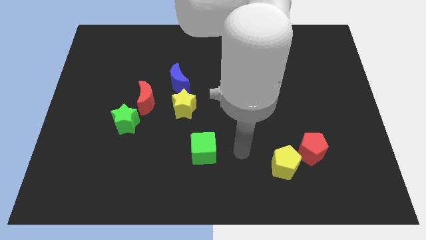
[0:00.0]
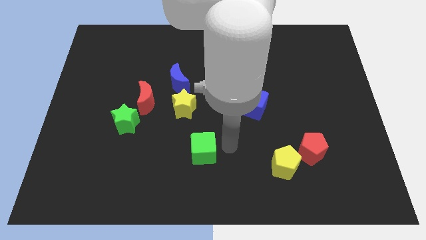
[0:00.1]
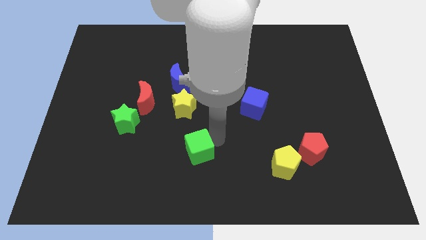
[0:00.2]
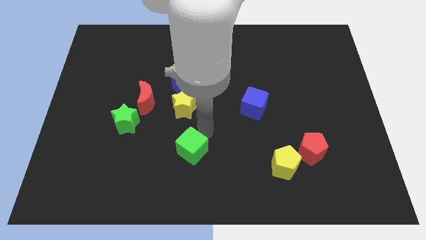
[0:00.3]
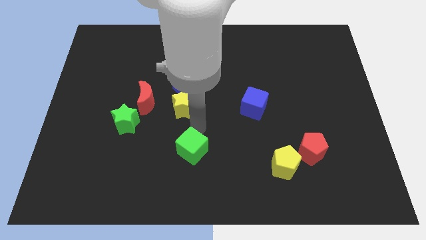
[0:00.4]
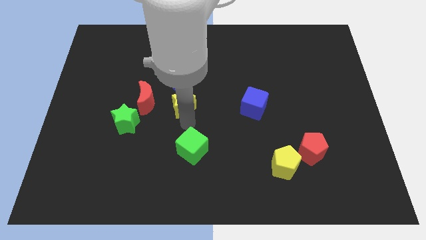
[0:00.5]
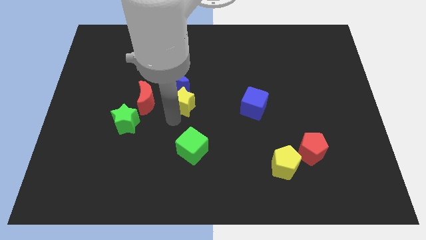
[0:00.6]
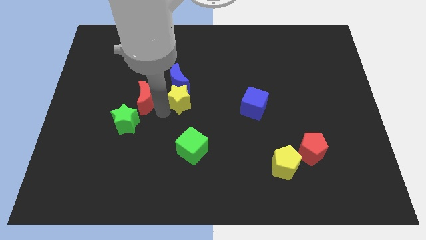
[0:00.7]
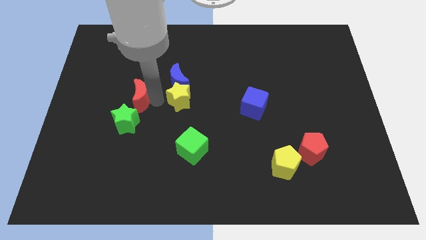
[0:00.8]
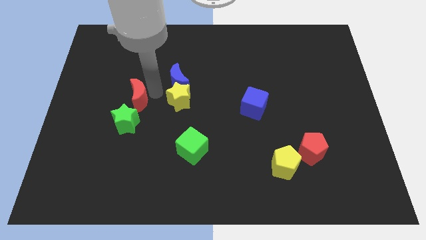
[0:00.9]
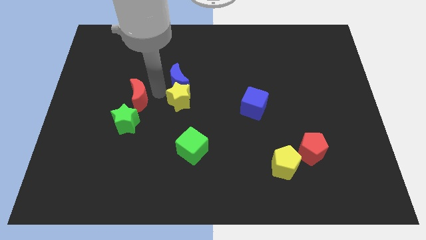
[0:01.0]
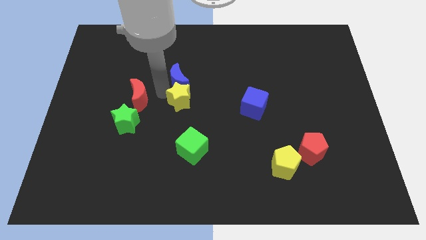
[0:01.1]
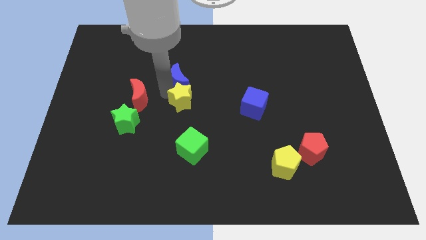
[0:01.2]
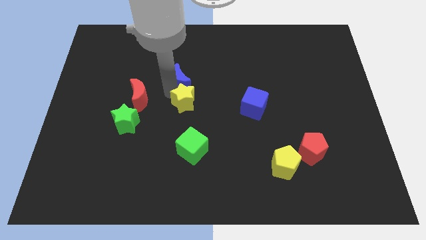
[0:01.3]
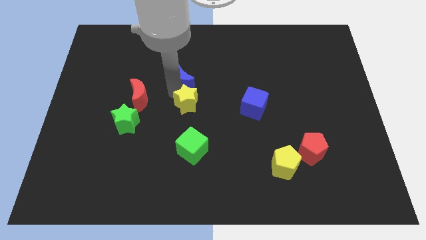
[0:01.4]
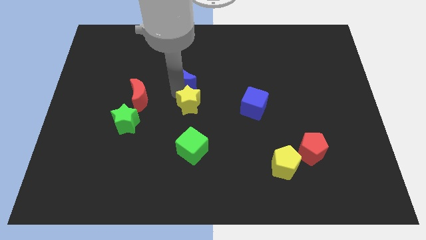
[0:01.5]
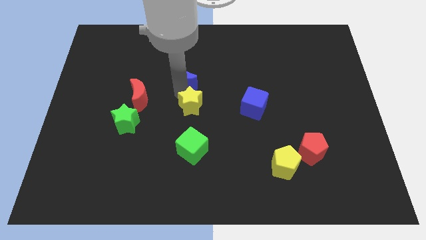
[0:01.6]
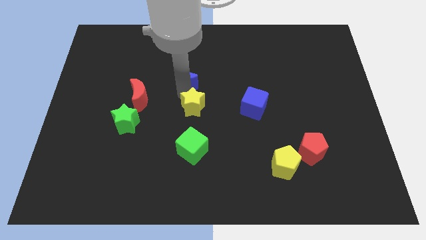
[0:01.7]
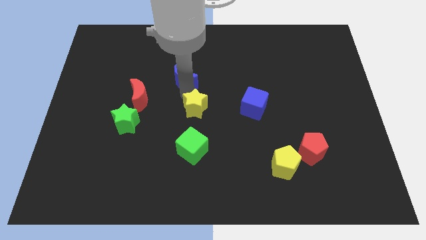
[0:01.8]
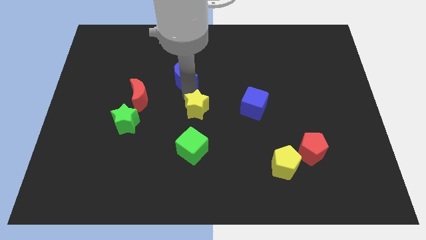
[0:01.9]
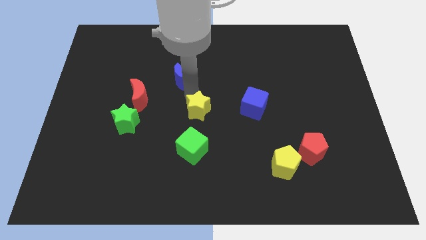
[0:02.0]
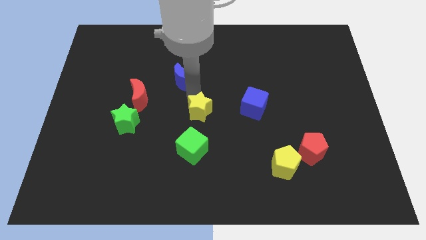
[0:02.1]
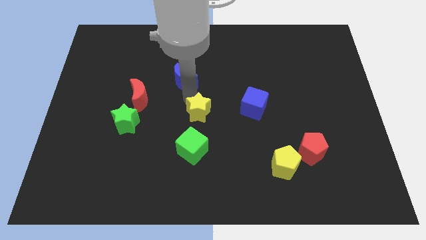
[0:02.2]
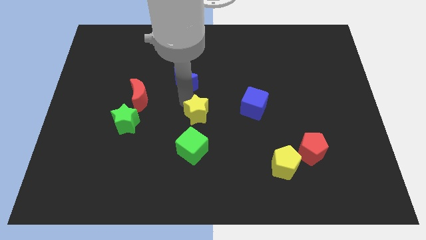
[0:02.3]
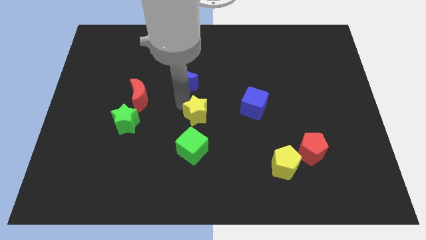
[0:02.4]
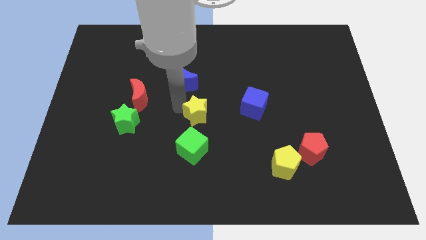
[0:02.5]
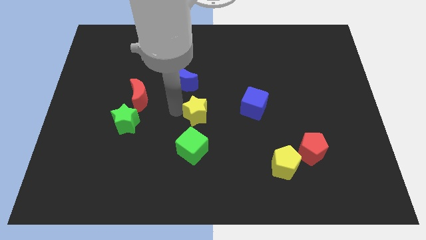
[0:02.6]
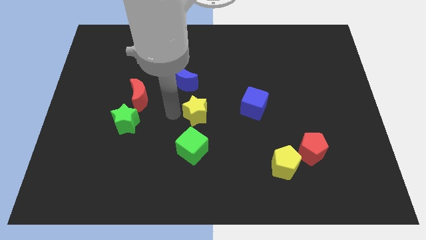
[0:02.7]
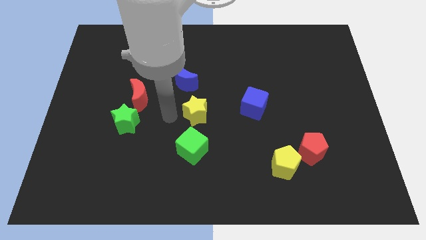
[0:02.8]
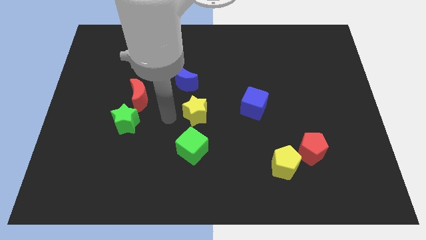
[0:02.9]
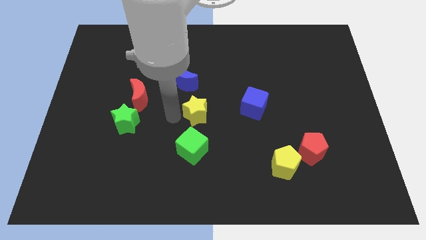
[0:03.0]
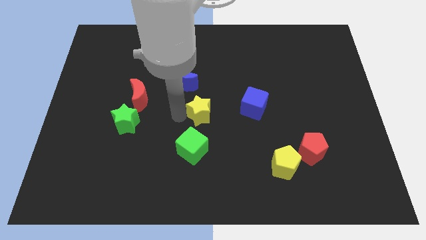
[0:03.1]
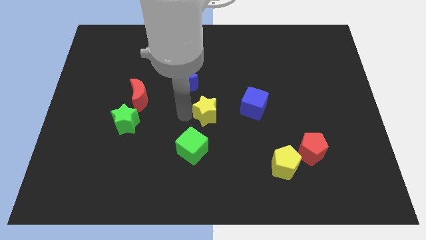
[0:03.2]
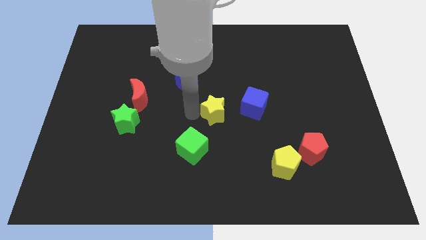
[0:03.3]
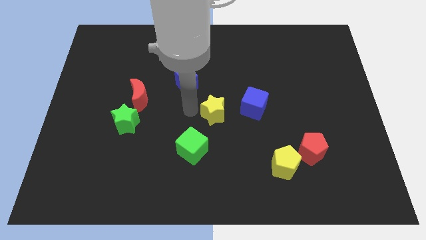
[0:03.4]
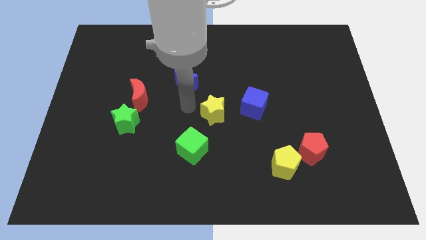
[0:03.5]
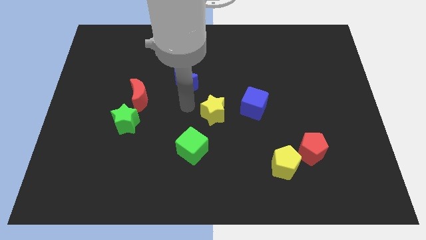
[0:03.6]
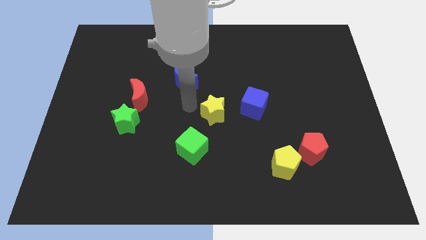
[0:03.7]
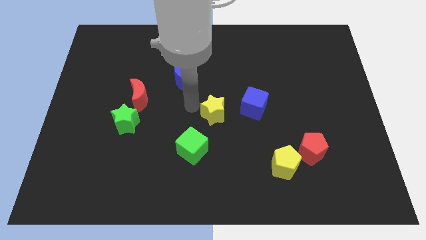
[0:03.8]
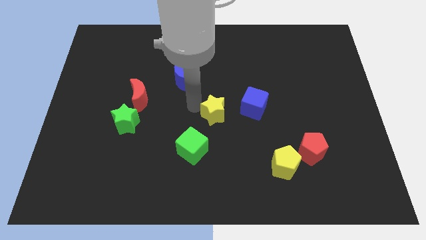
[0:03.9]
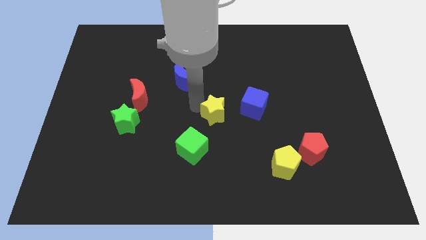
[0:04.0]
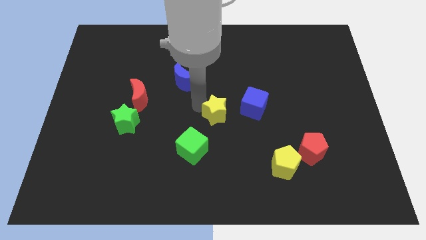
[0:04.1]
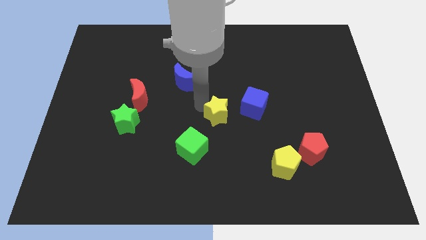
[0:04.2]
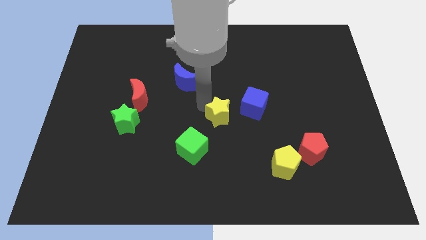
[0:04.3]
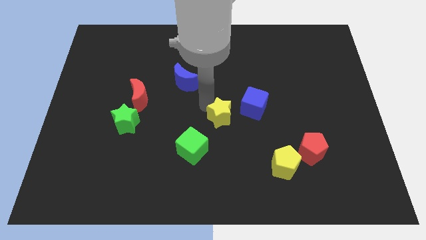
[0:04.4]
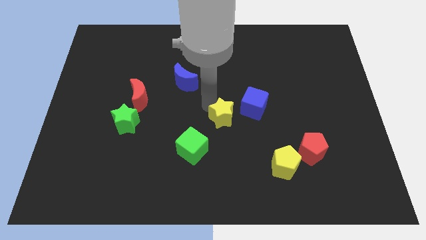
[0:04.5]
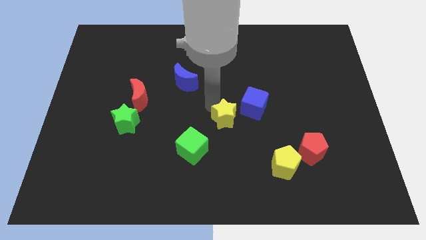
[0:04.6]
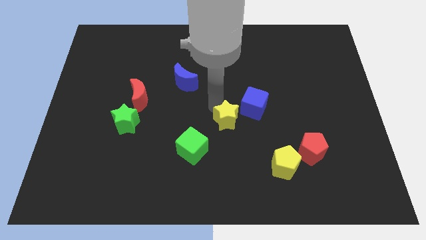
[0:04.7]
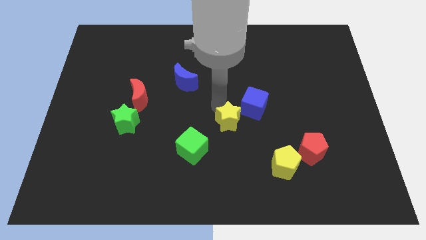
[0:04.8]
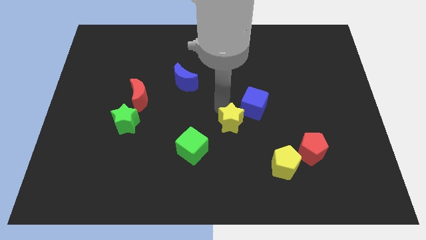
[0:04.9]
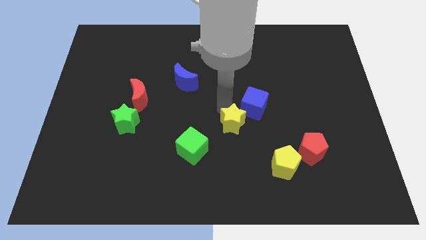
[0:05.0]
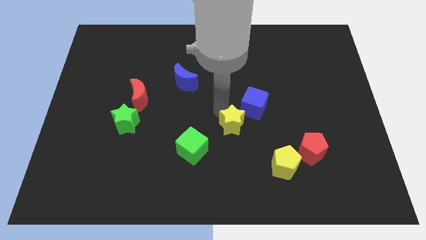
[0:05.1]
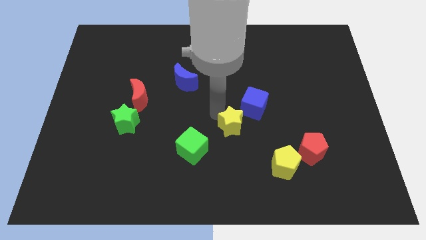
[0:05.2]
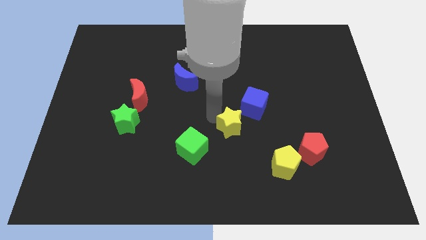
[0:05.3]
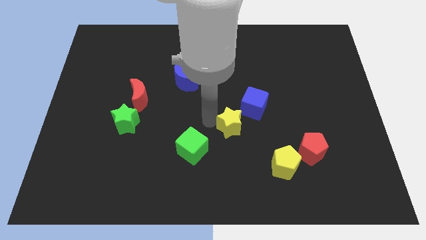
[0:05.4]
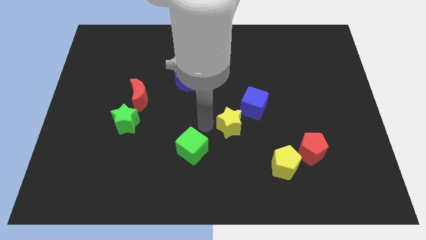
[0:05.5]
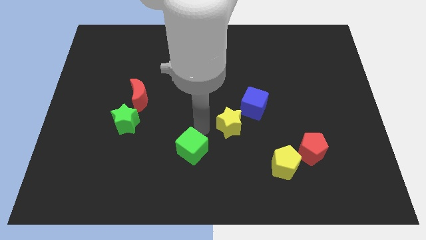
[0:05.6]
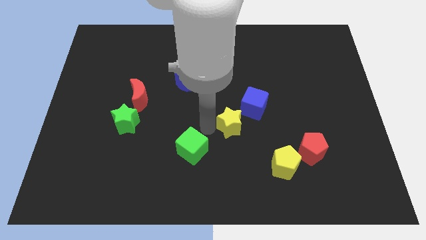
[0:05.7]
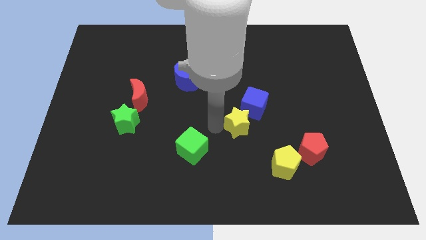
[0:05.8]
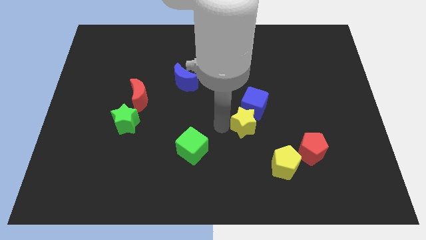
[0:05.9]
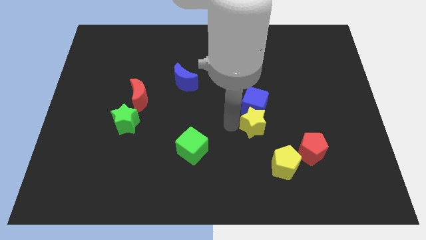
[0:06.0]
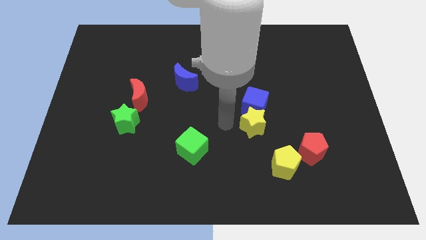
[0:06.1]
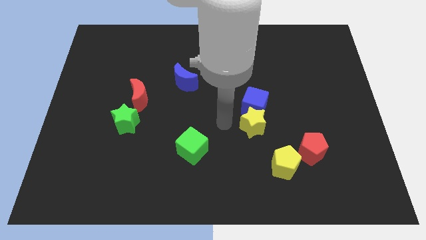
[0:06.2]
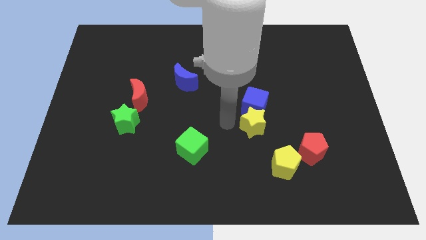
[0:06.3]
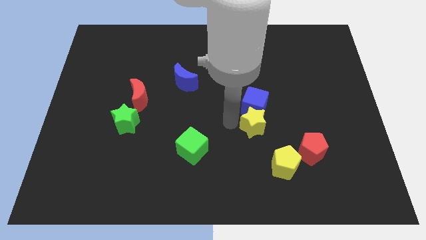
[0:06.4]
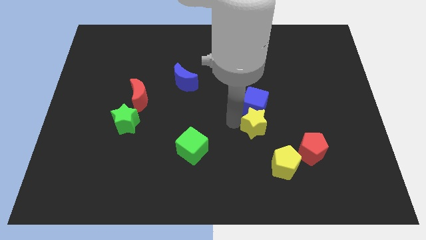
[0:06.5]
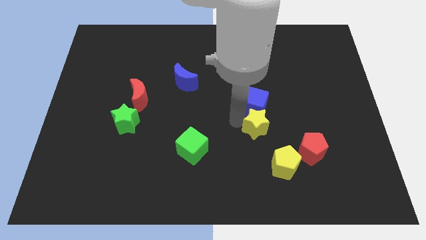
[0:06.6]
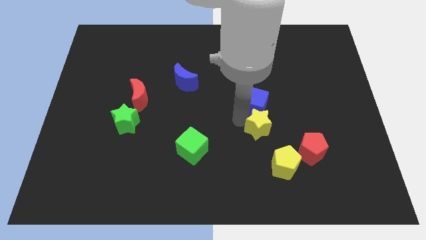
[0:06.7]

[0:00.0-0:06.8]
move the yellow star to the top of the yellow pentagon
